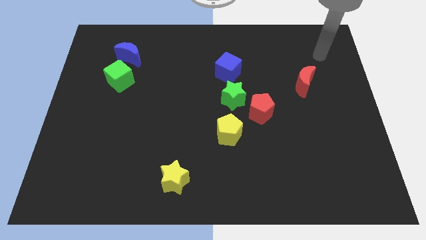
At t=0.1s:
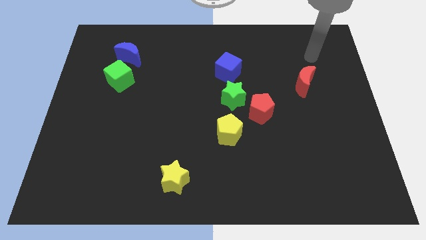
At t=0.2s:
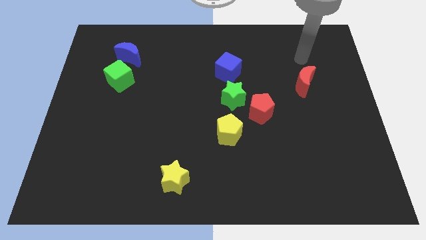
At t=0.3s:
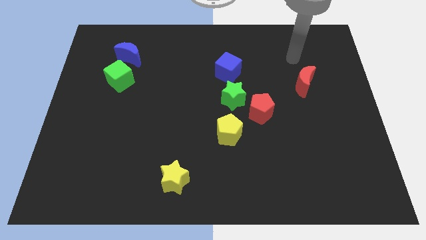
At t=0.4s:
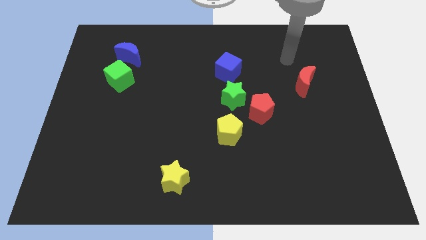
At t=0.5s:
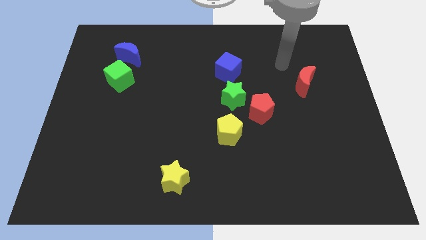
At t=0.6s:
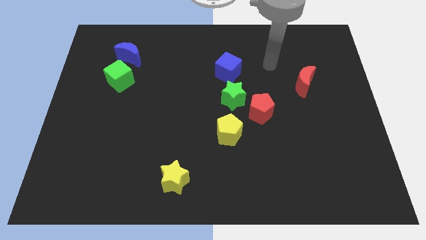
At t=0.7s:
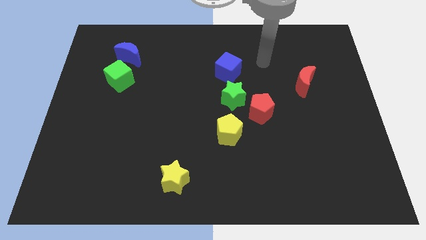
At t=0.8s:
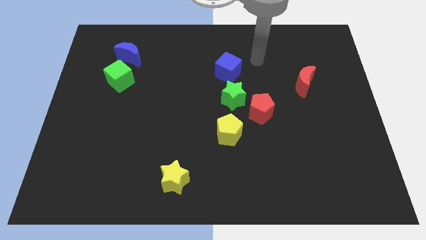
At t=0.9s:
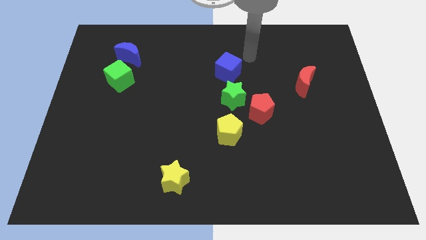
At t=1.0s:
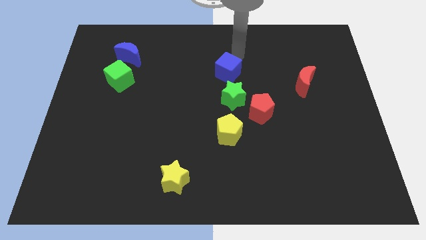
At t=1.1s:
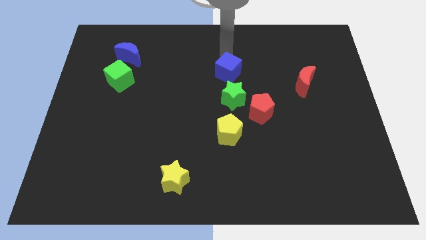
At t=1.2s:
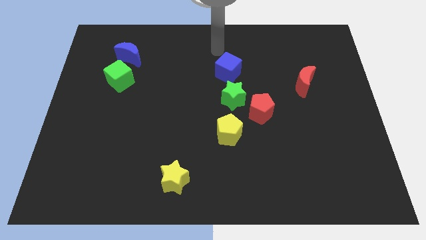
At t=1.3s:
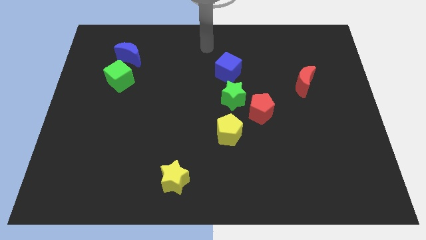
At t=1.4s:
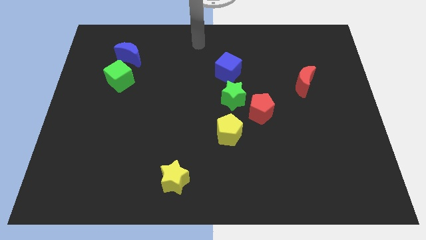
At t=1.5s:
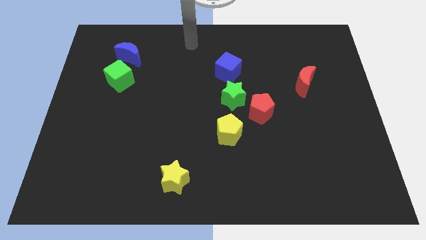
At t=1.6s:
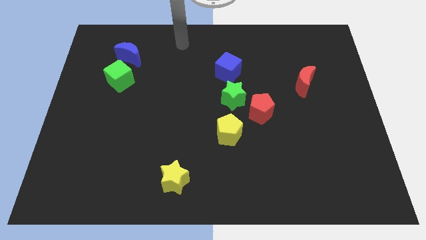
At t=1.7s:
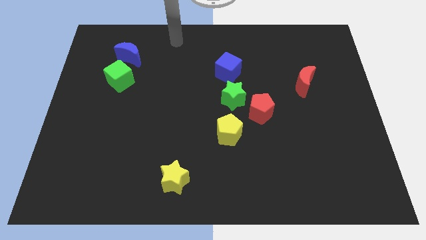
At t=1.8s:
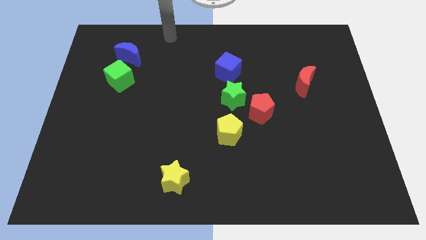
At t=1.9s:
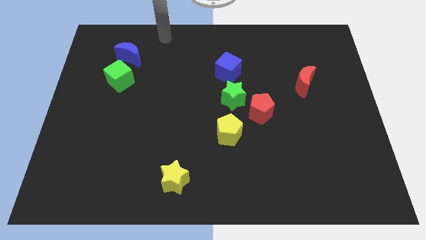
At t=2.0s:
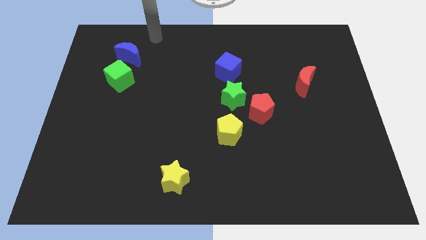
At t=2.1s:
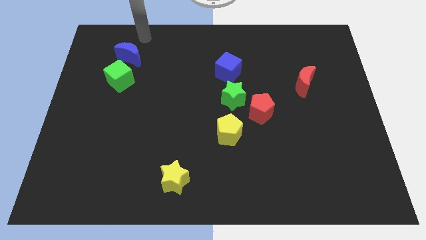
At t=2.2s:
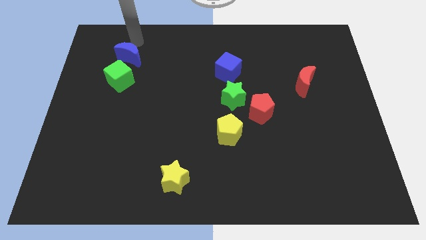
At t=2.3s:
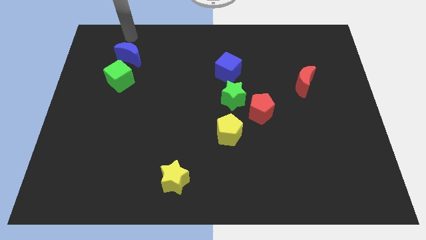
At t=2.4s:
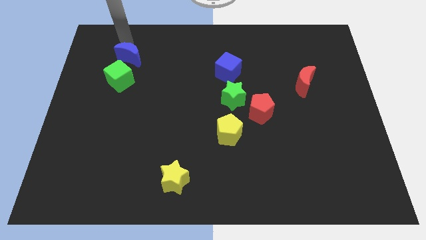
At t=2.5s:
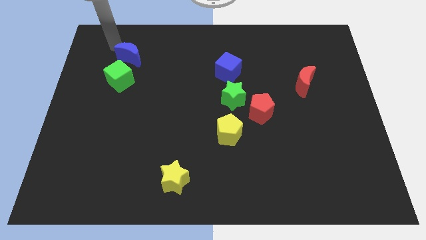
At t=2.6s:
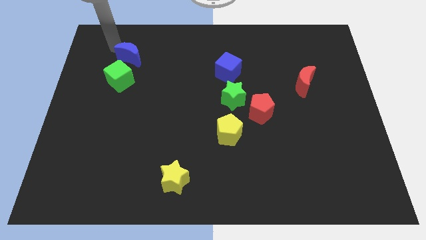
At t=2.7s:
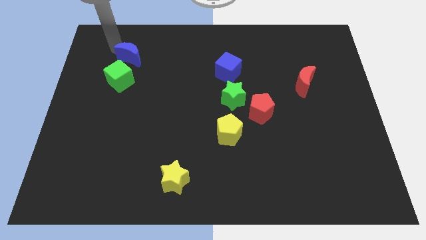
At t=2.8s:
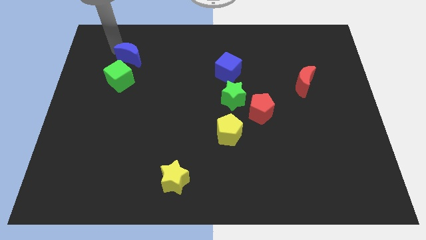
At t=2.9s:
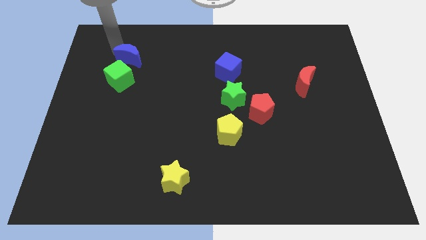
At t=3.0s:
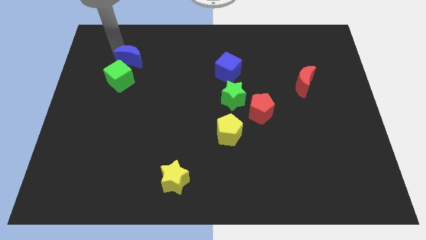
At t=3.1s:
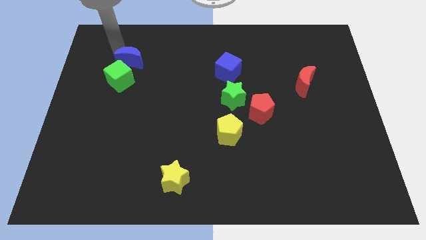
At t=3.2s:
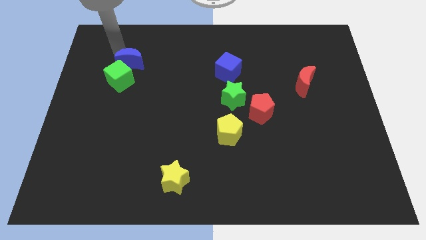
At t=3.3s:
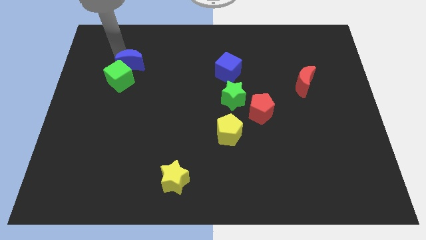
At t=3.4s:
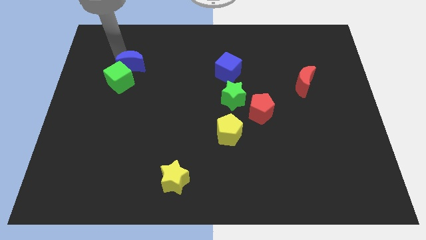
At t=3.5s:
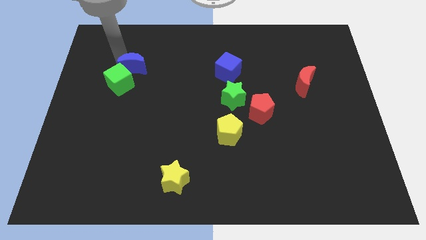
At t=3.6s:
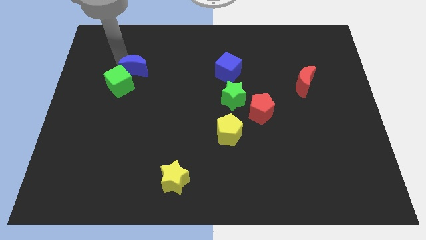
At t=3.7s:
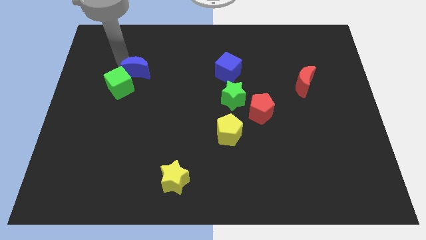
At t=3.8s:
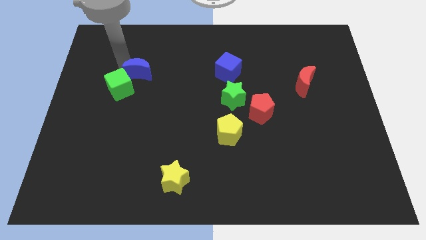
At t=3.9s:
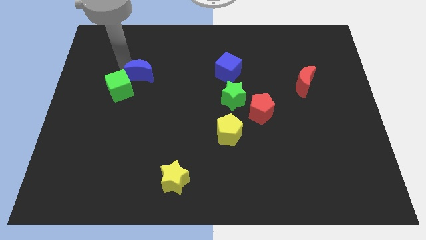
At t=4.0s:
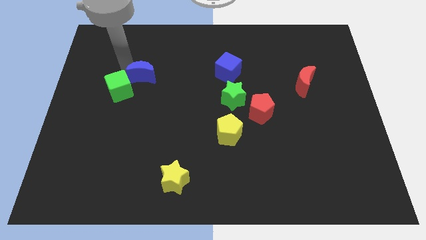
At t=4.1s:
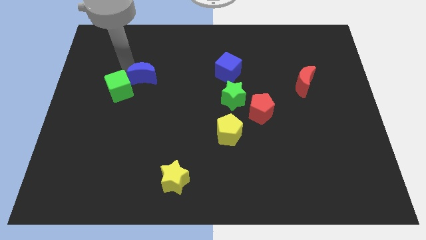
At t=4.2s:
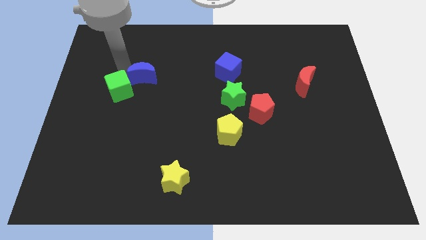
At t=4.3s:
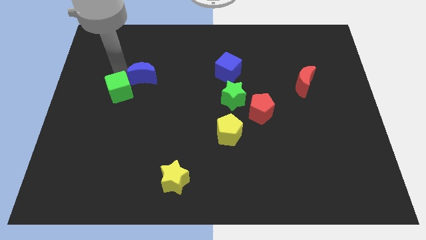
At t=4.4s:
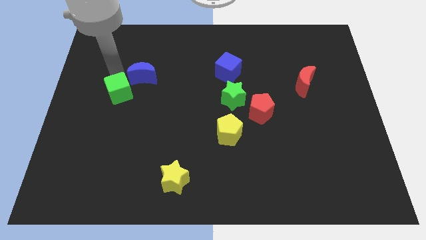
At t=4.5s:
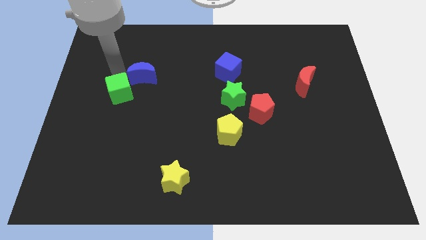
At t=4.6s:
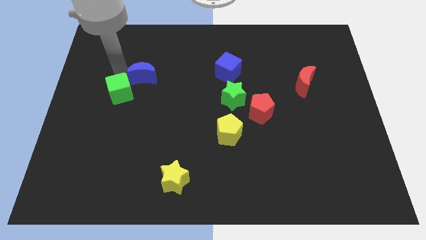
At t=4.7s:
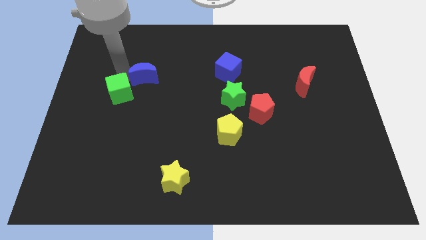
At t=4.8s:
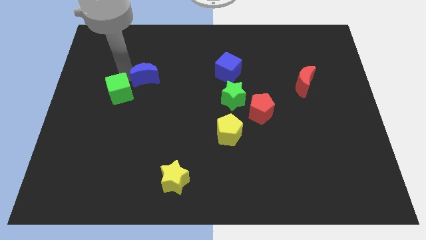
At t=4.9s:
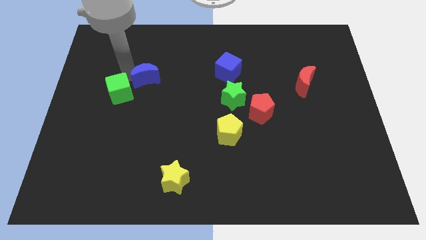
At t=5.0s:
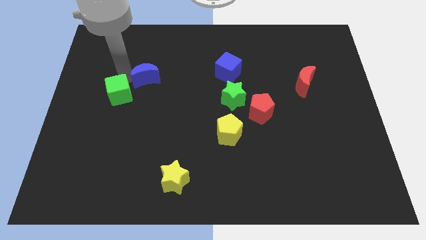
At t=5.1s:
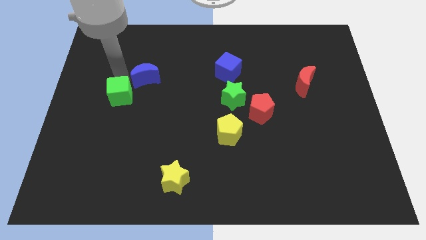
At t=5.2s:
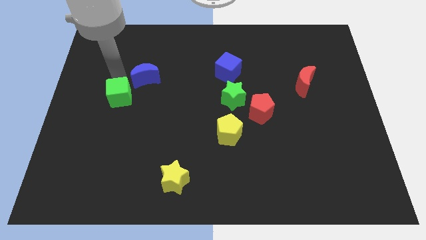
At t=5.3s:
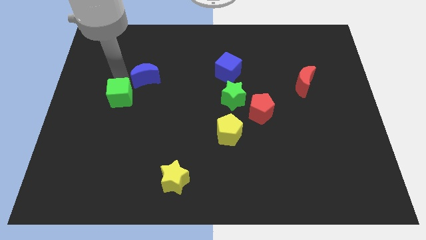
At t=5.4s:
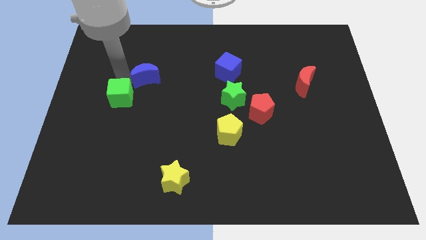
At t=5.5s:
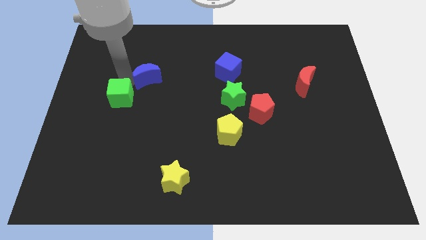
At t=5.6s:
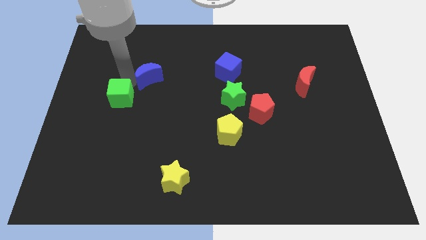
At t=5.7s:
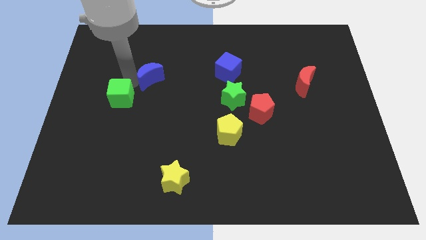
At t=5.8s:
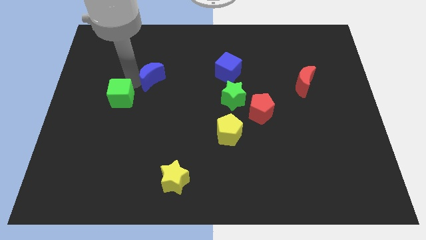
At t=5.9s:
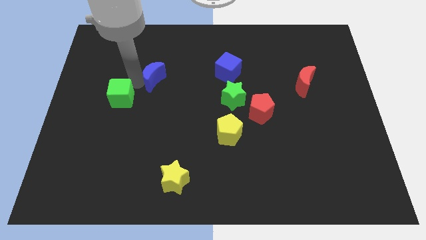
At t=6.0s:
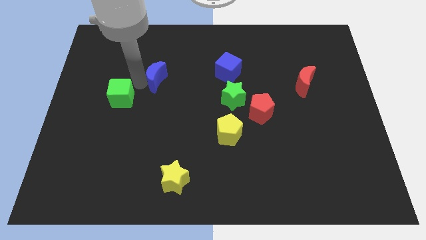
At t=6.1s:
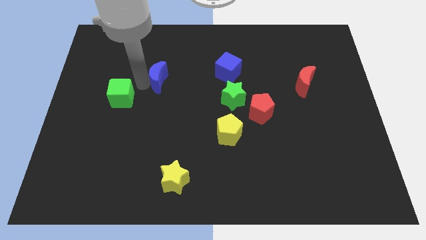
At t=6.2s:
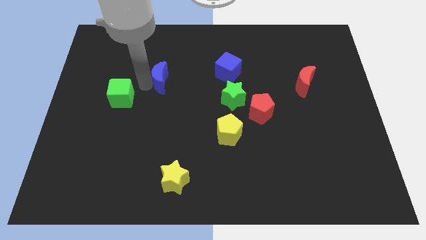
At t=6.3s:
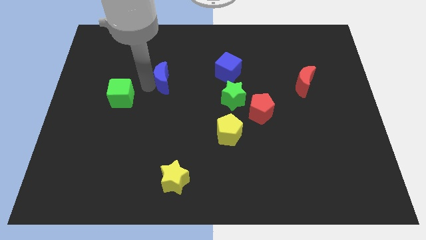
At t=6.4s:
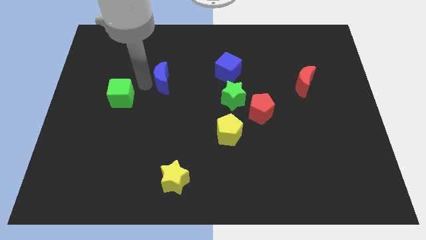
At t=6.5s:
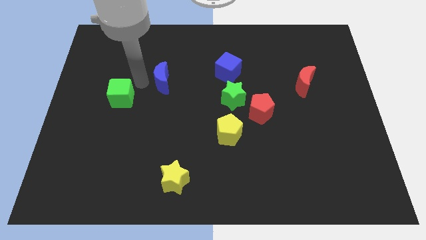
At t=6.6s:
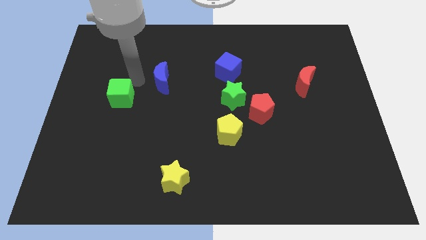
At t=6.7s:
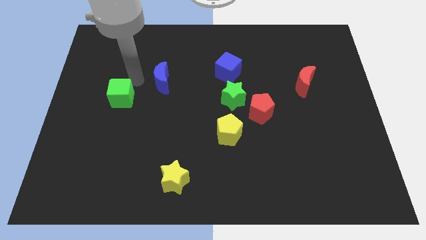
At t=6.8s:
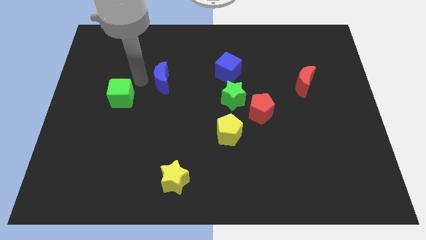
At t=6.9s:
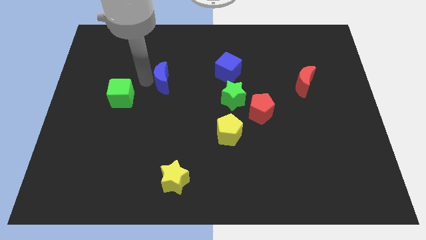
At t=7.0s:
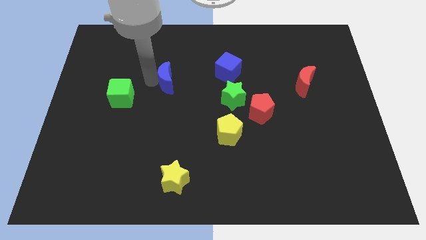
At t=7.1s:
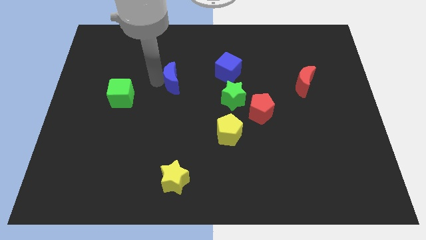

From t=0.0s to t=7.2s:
move the blue moon to the middle of the board
